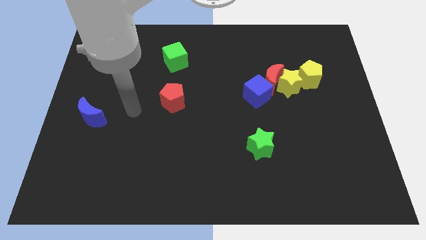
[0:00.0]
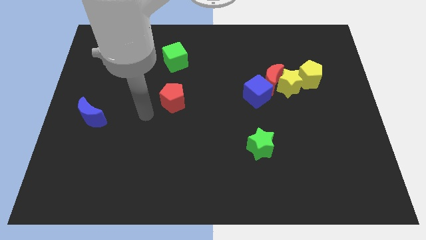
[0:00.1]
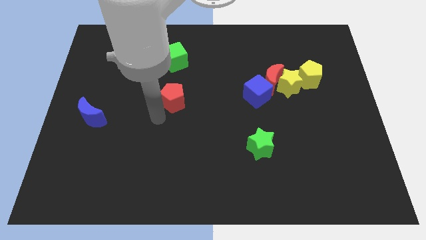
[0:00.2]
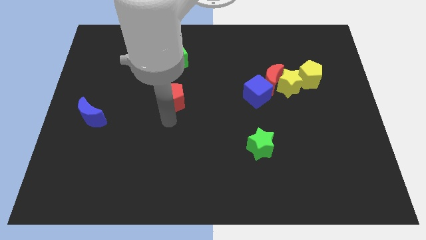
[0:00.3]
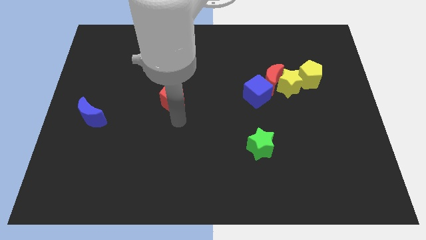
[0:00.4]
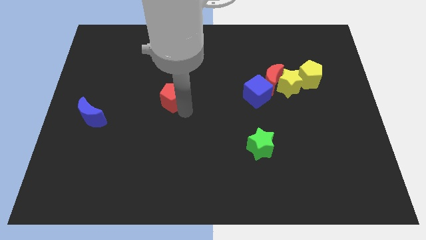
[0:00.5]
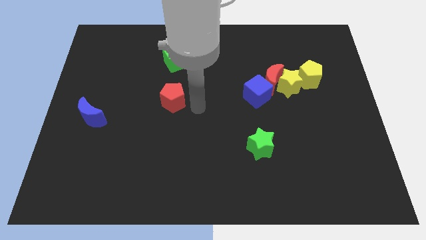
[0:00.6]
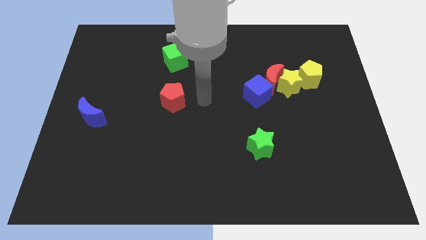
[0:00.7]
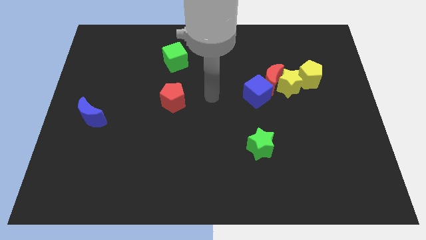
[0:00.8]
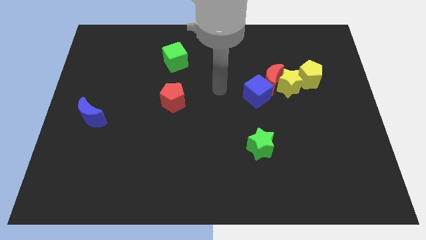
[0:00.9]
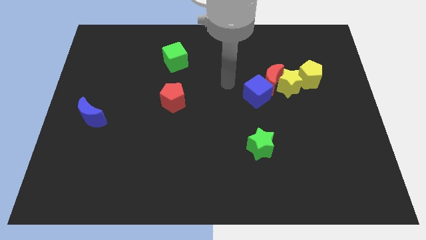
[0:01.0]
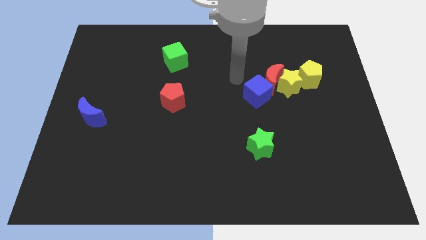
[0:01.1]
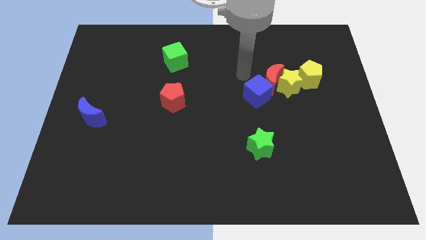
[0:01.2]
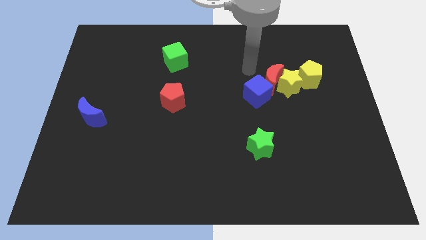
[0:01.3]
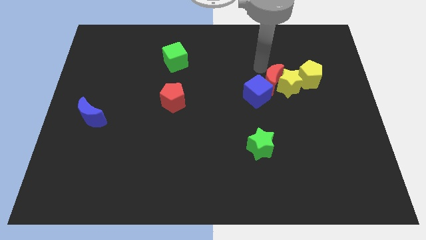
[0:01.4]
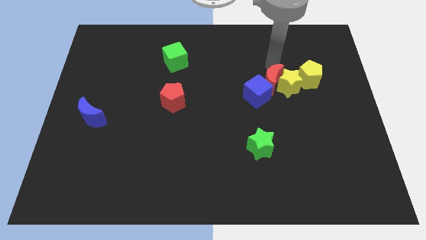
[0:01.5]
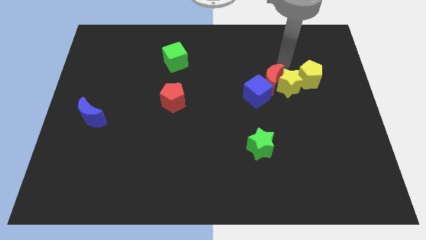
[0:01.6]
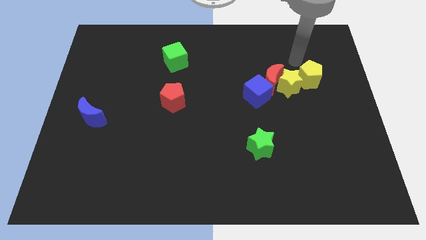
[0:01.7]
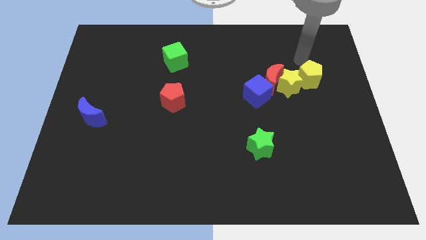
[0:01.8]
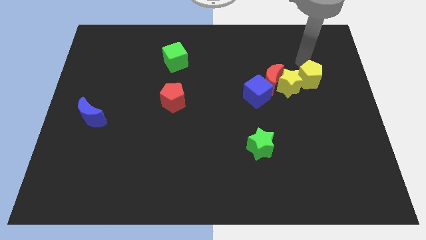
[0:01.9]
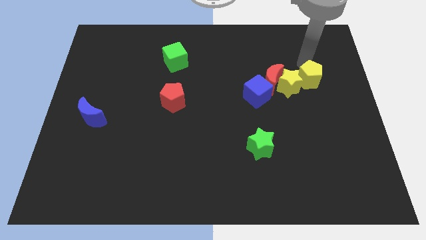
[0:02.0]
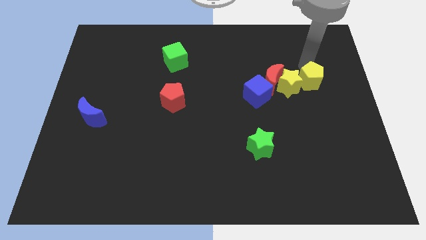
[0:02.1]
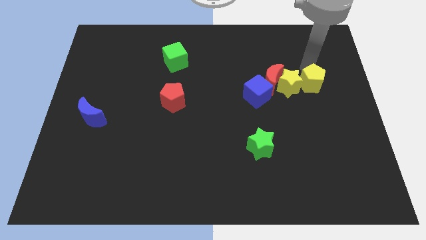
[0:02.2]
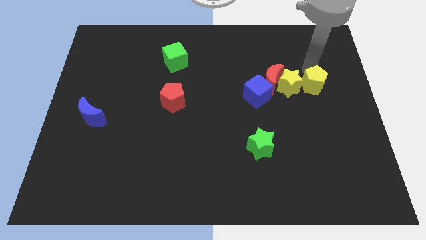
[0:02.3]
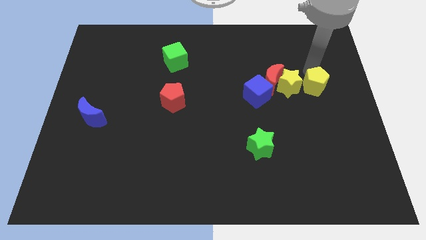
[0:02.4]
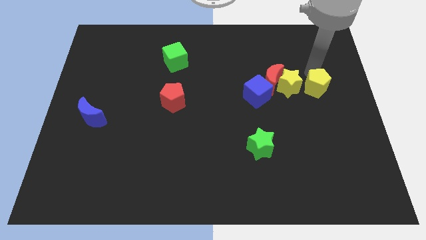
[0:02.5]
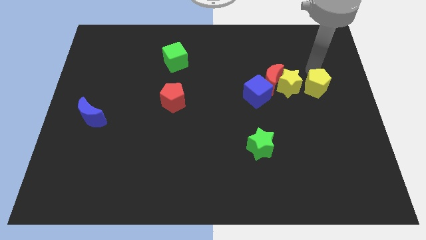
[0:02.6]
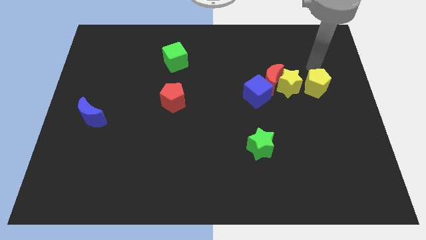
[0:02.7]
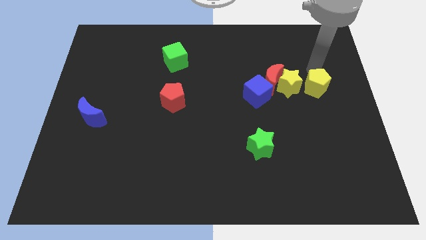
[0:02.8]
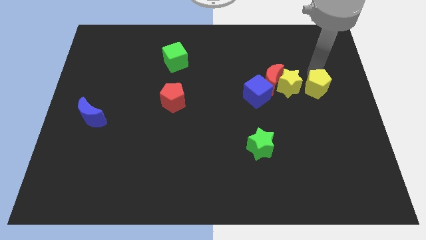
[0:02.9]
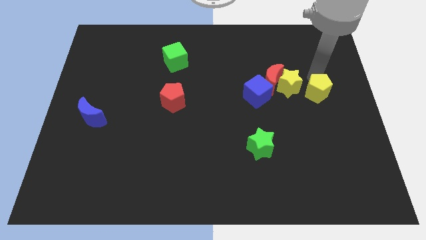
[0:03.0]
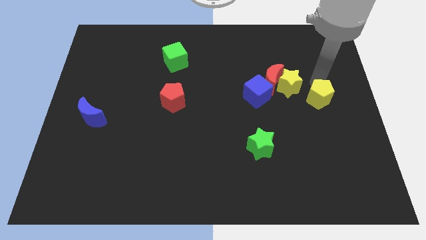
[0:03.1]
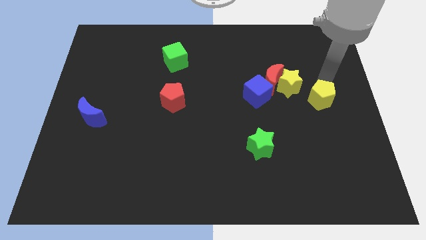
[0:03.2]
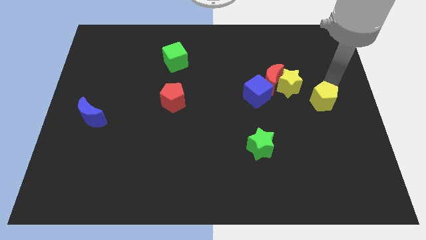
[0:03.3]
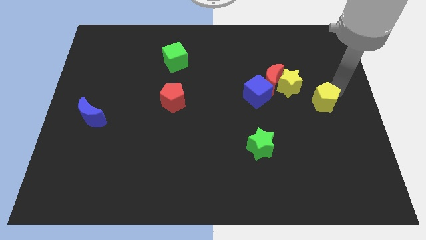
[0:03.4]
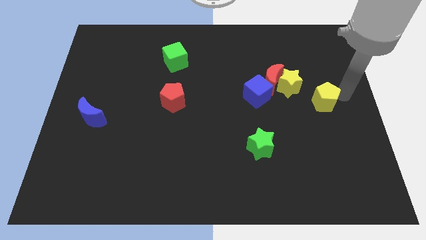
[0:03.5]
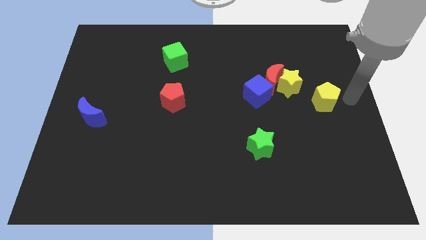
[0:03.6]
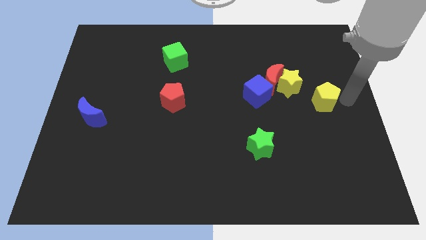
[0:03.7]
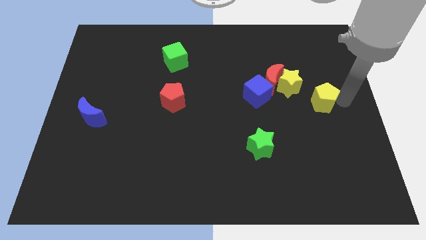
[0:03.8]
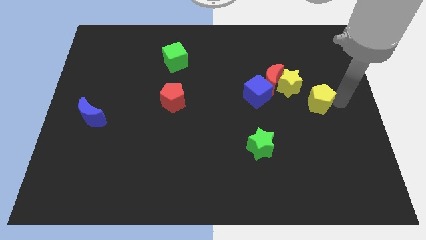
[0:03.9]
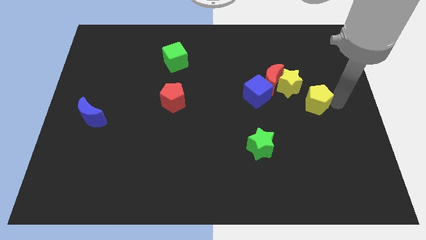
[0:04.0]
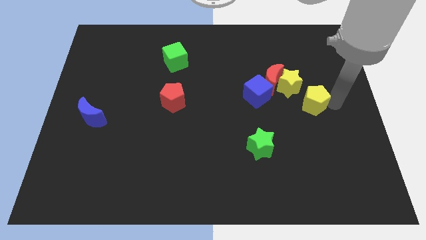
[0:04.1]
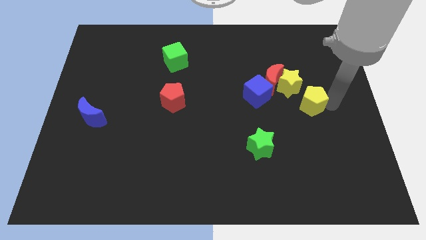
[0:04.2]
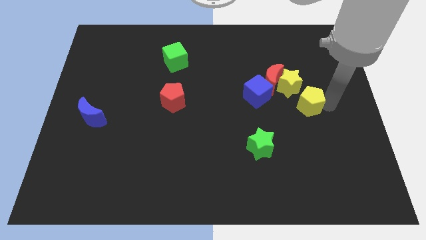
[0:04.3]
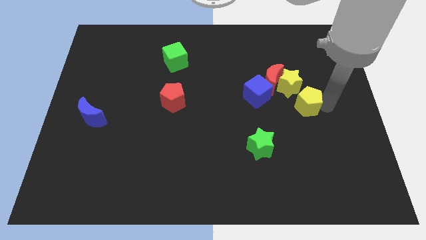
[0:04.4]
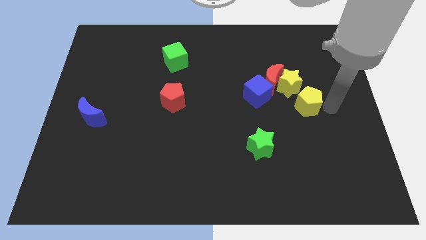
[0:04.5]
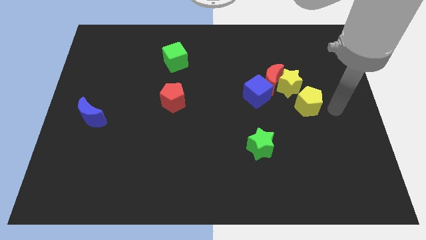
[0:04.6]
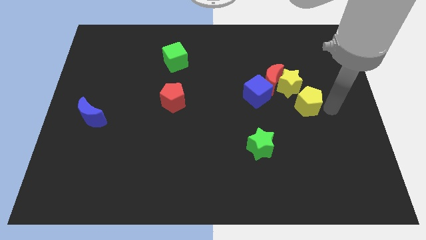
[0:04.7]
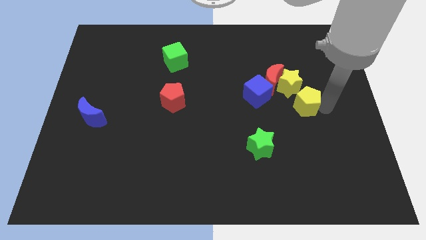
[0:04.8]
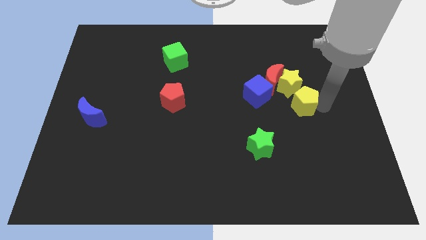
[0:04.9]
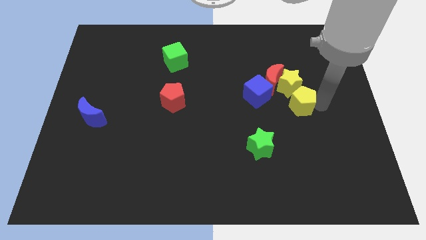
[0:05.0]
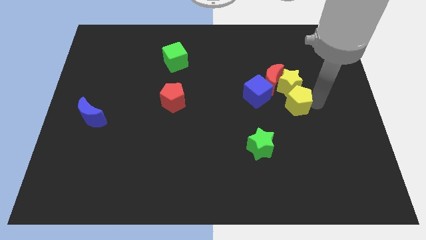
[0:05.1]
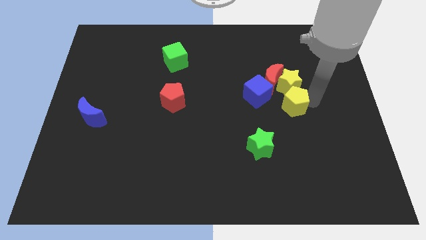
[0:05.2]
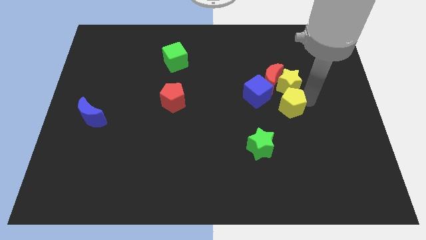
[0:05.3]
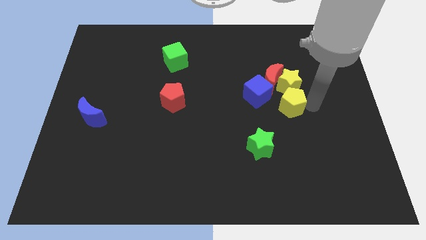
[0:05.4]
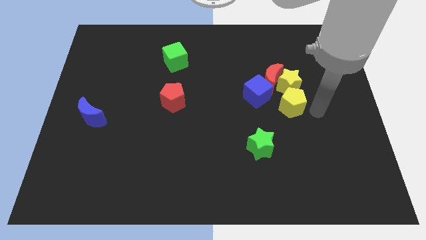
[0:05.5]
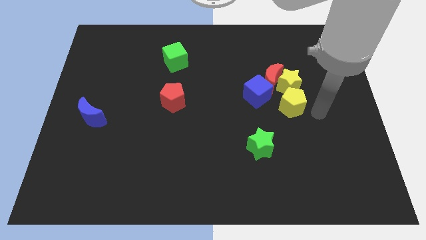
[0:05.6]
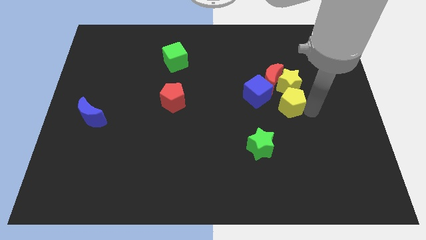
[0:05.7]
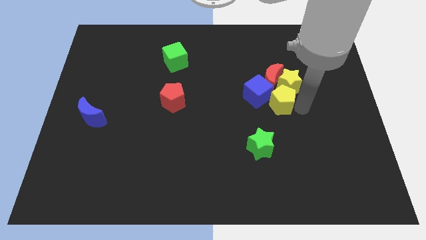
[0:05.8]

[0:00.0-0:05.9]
slide the yellow pentagon close to the blue cube

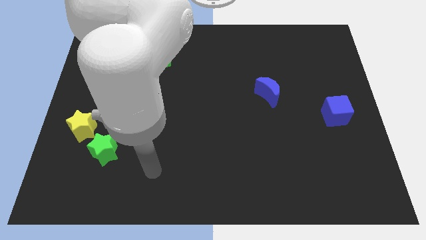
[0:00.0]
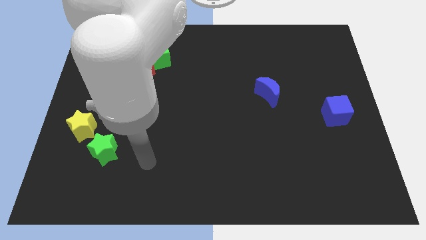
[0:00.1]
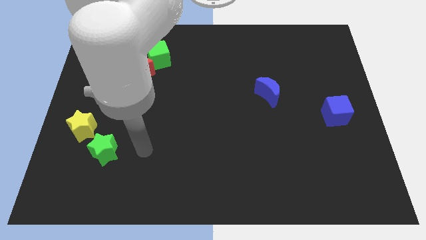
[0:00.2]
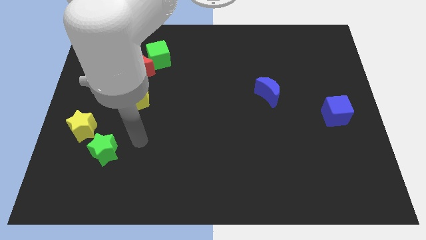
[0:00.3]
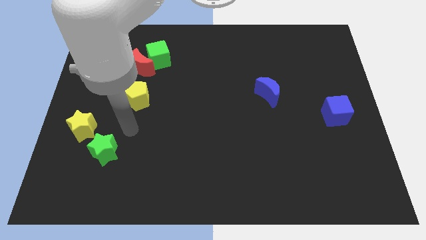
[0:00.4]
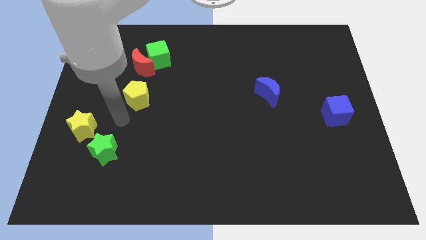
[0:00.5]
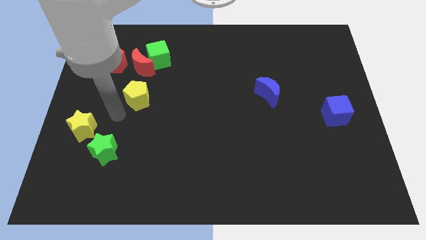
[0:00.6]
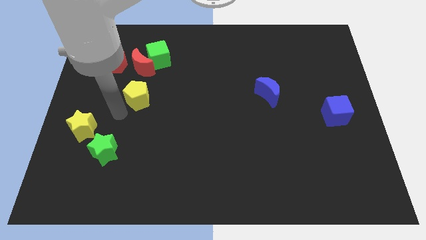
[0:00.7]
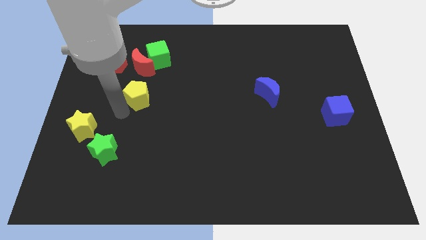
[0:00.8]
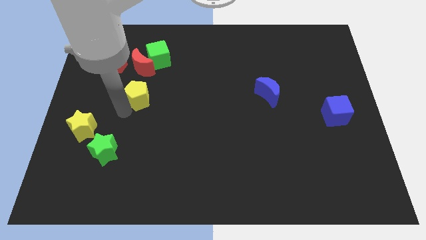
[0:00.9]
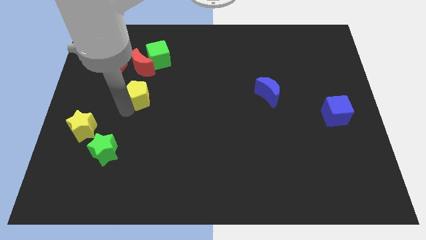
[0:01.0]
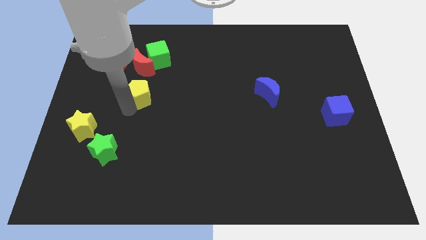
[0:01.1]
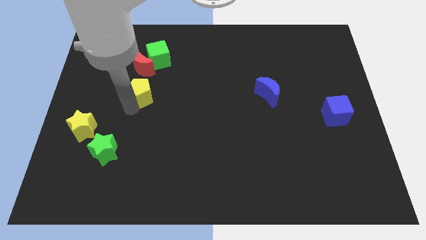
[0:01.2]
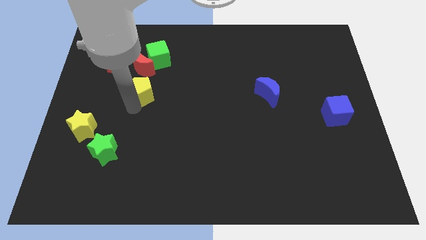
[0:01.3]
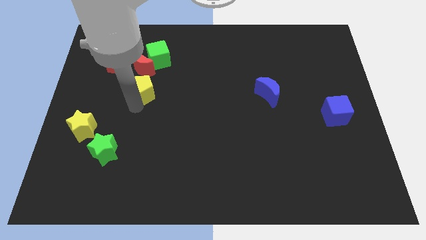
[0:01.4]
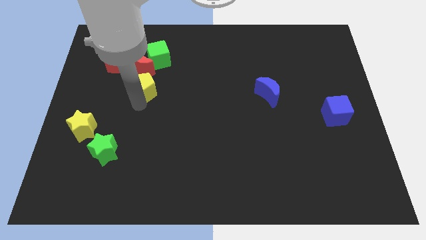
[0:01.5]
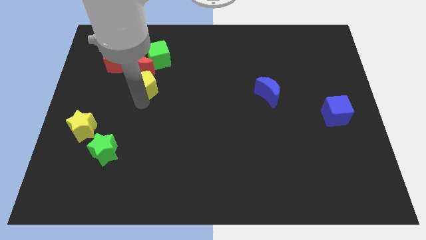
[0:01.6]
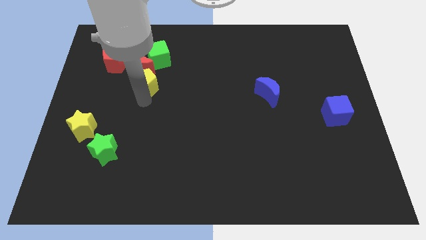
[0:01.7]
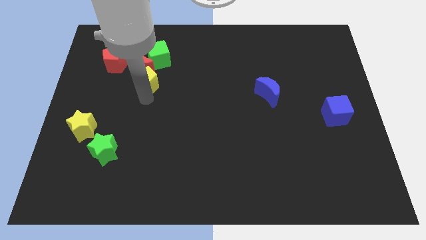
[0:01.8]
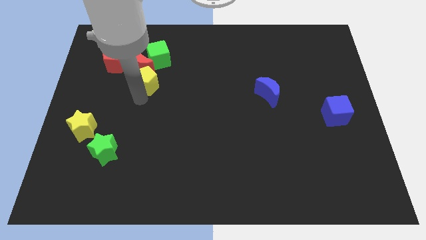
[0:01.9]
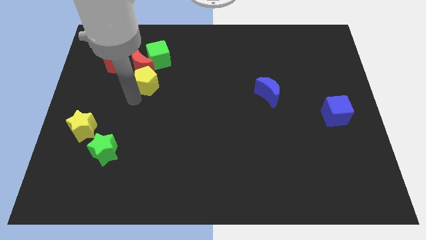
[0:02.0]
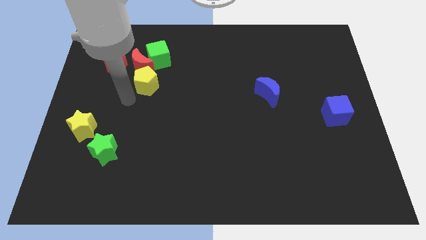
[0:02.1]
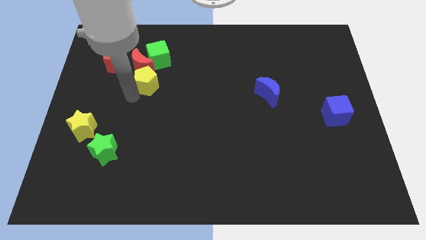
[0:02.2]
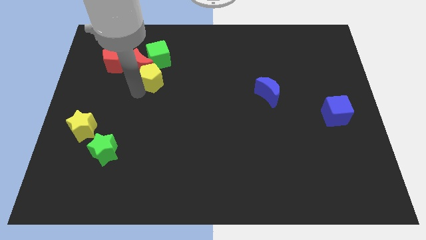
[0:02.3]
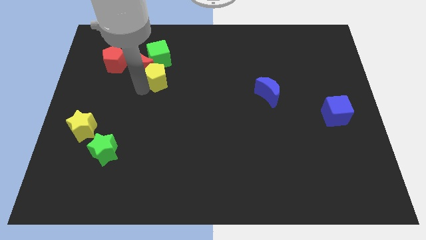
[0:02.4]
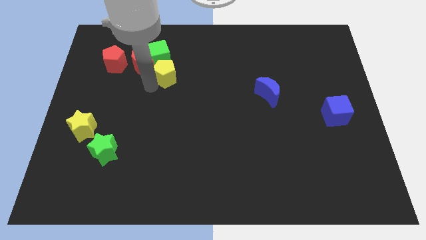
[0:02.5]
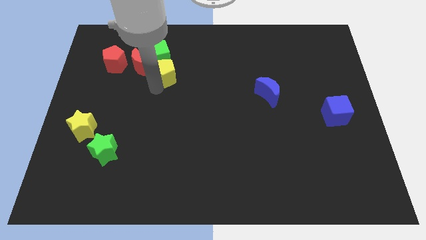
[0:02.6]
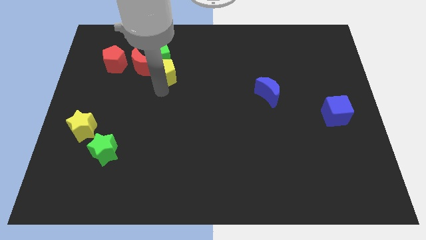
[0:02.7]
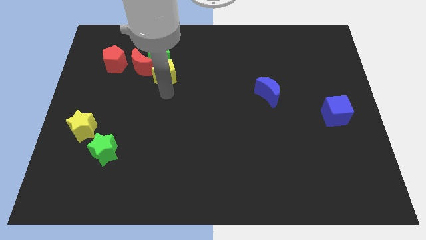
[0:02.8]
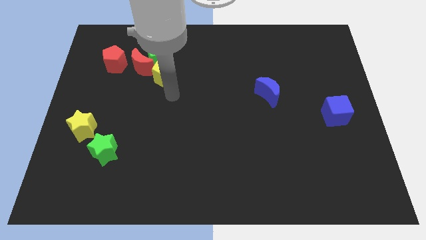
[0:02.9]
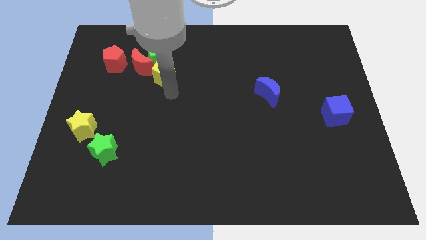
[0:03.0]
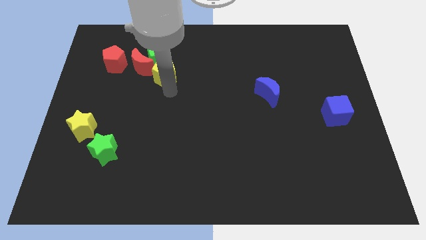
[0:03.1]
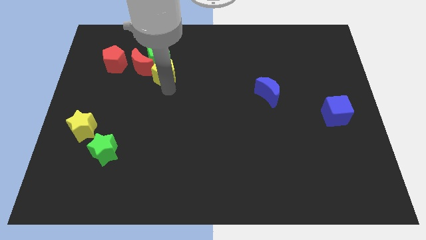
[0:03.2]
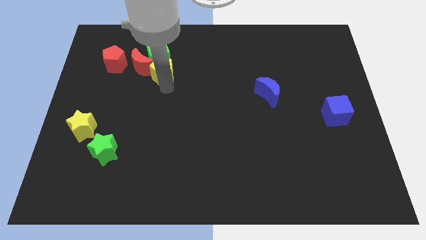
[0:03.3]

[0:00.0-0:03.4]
move the yellow pentagon close to the green cube
